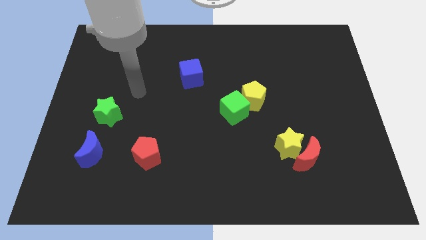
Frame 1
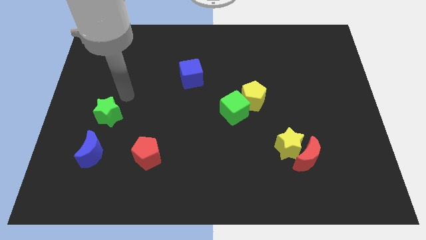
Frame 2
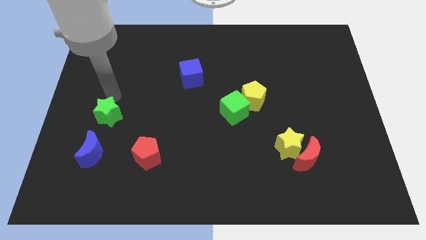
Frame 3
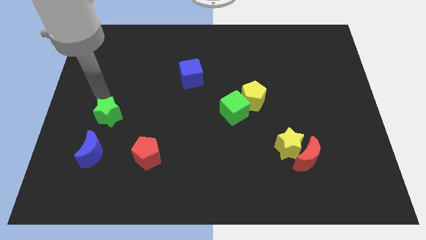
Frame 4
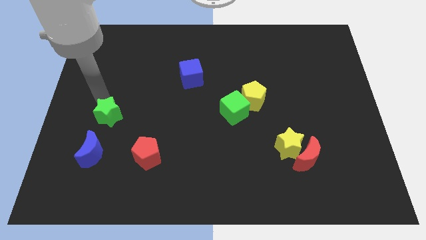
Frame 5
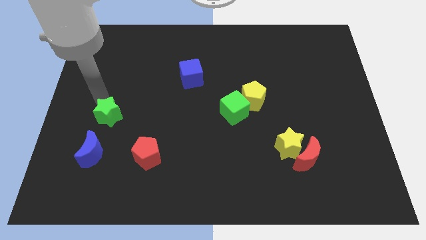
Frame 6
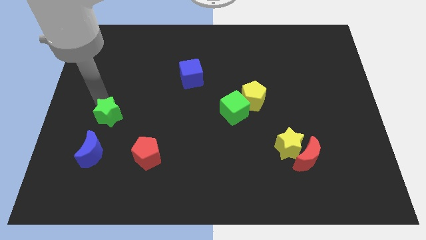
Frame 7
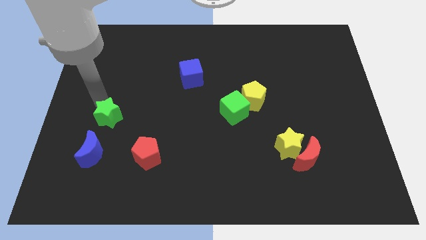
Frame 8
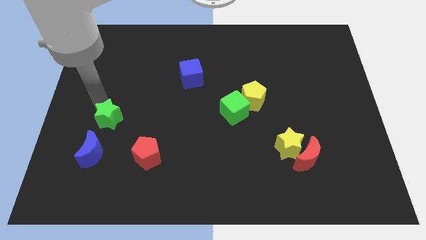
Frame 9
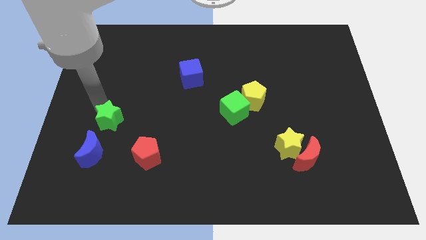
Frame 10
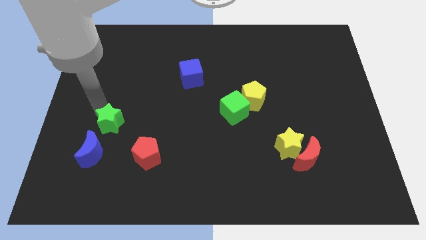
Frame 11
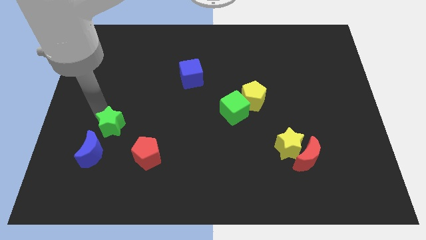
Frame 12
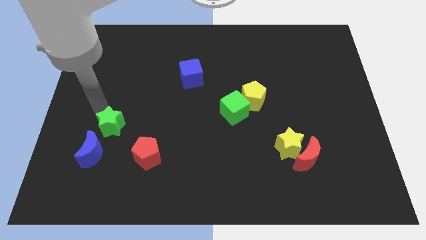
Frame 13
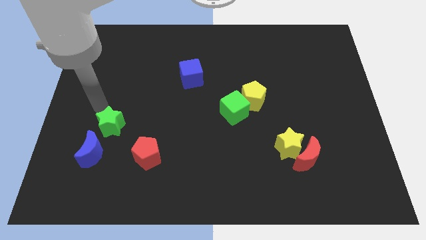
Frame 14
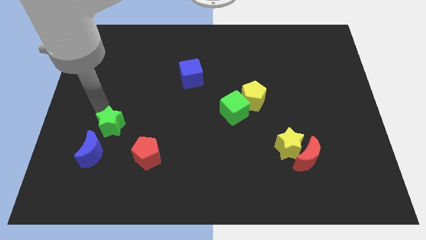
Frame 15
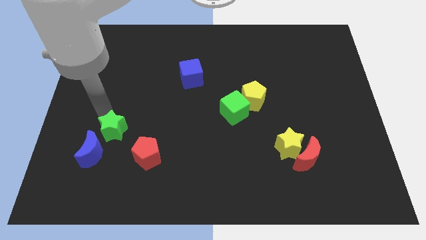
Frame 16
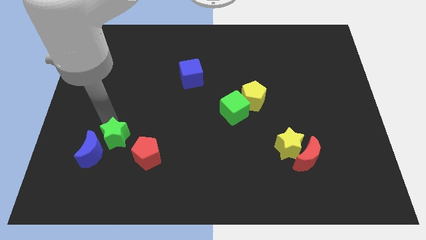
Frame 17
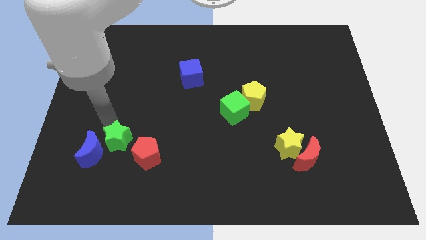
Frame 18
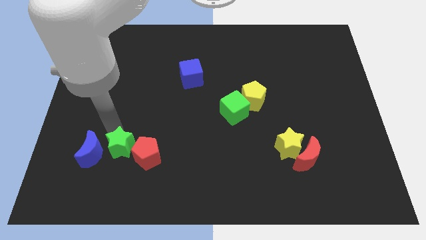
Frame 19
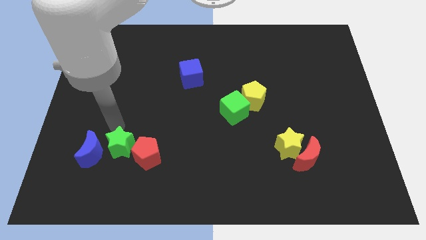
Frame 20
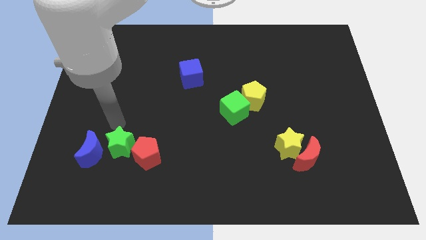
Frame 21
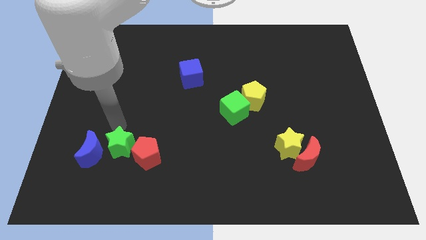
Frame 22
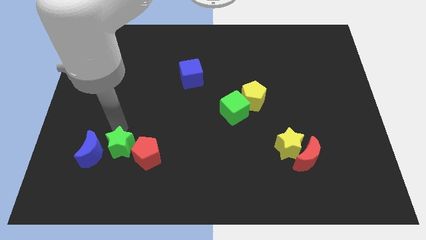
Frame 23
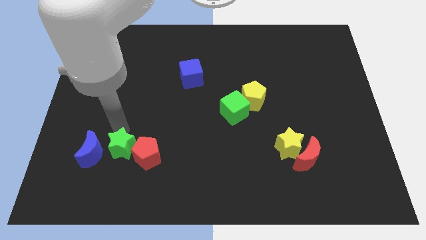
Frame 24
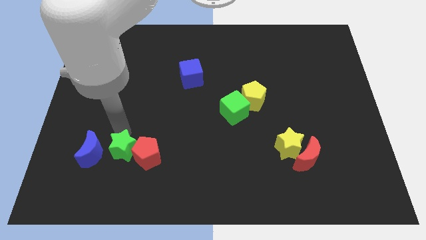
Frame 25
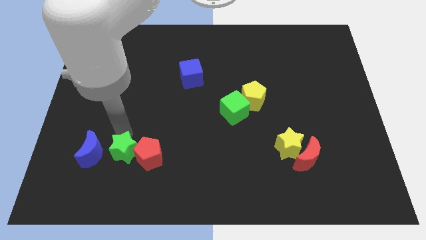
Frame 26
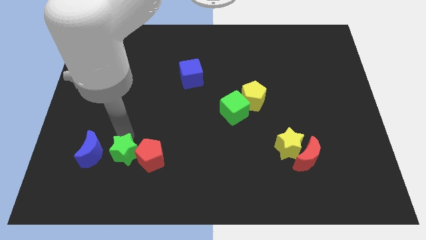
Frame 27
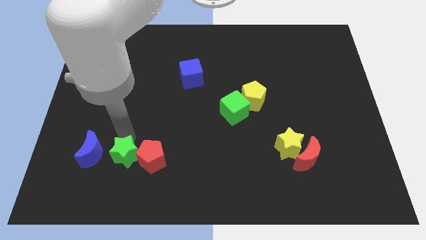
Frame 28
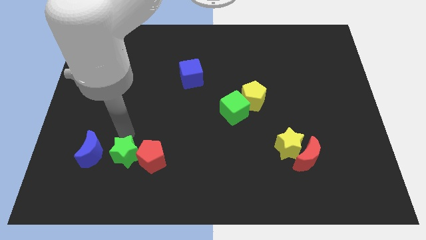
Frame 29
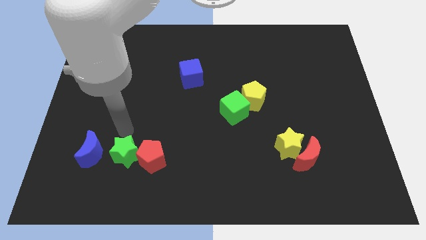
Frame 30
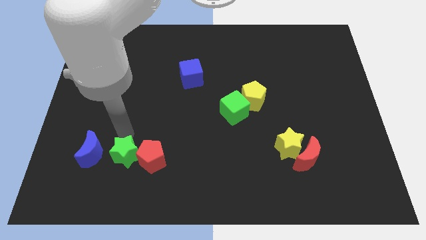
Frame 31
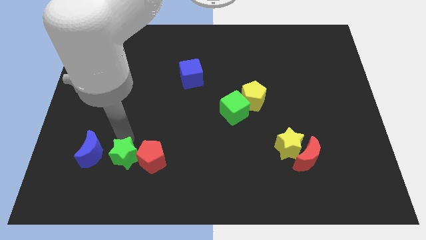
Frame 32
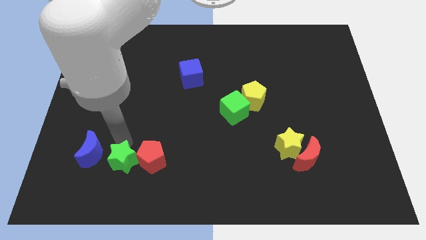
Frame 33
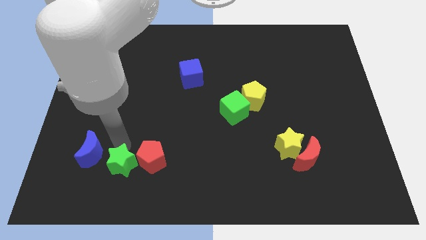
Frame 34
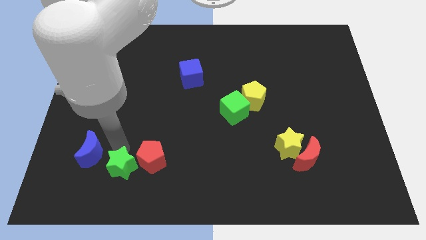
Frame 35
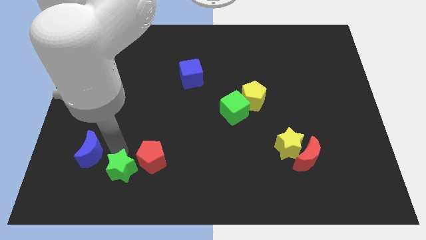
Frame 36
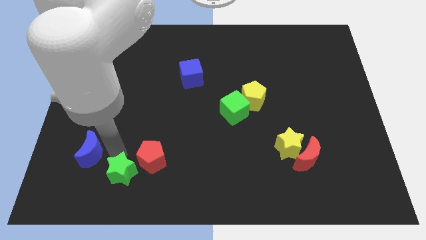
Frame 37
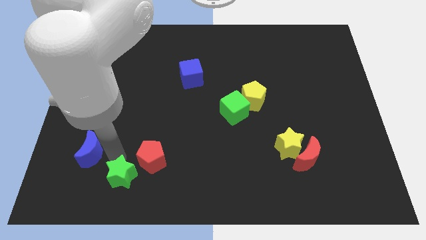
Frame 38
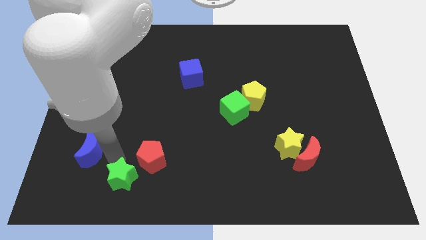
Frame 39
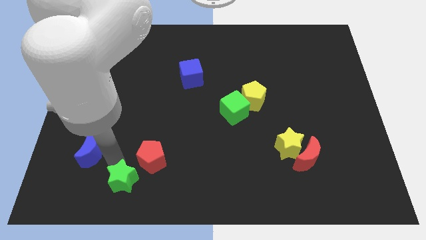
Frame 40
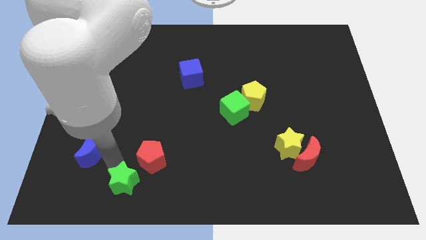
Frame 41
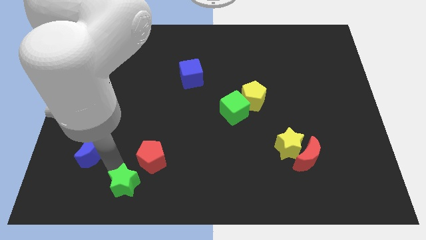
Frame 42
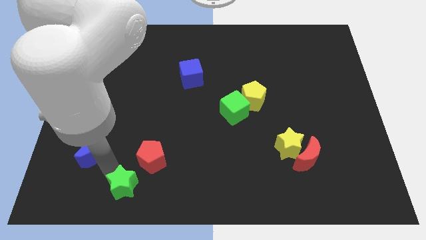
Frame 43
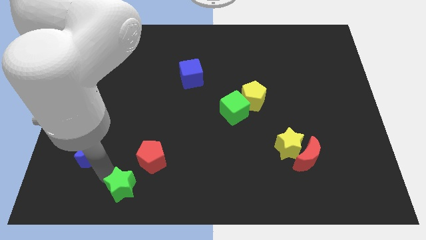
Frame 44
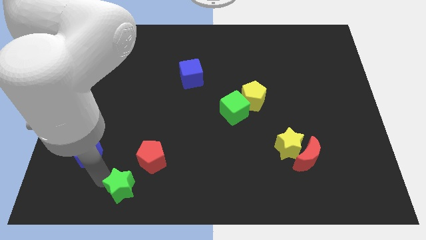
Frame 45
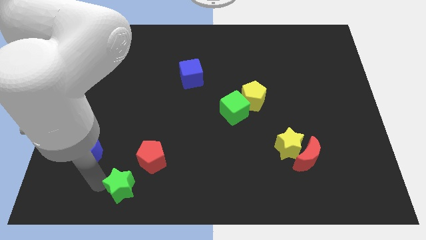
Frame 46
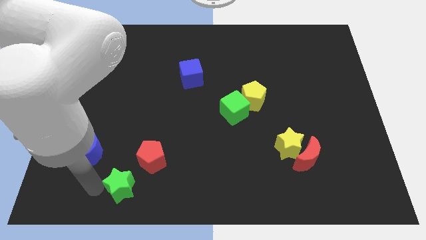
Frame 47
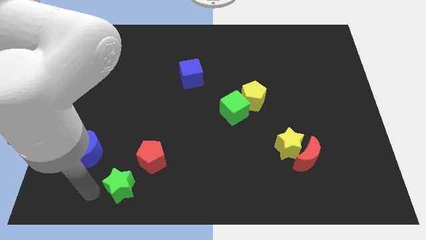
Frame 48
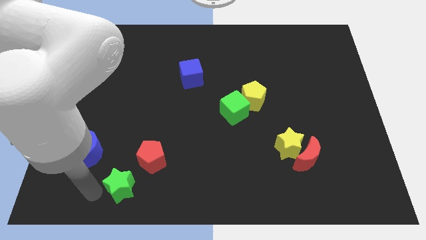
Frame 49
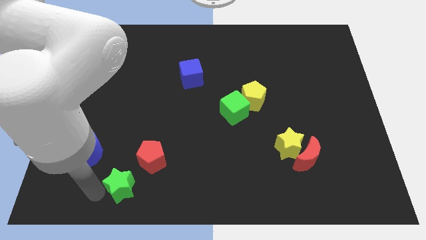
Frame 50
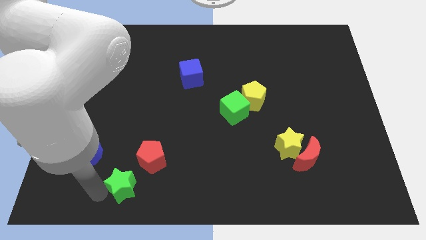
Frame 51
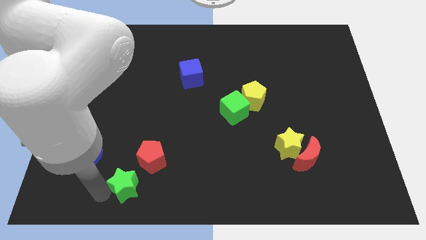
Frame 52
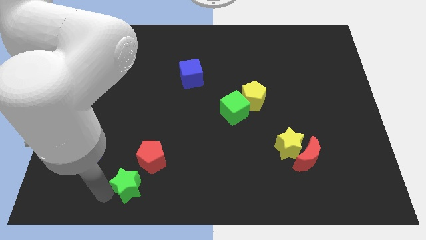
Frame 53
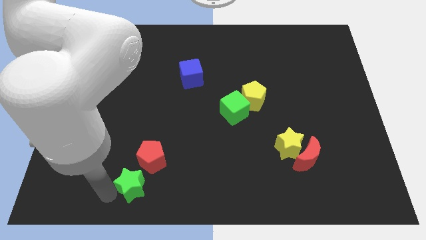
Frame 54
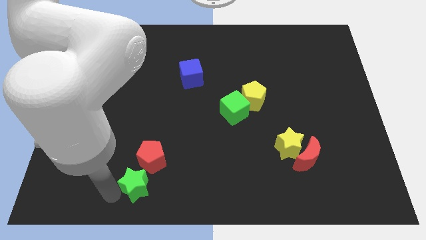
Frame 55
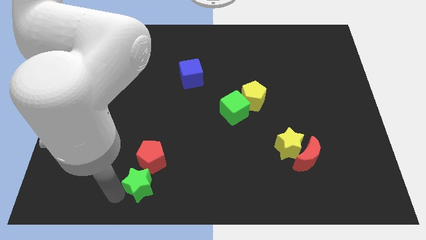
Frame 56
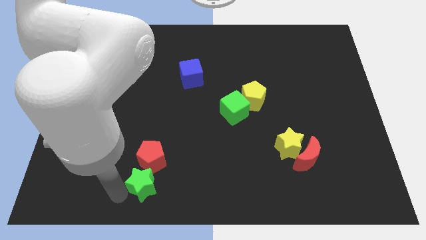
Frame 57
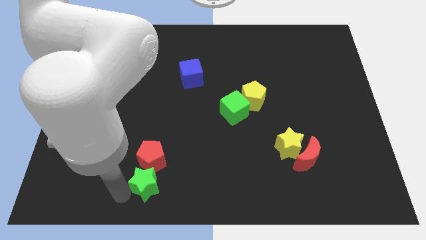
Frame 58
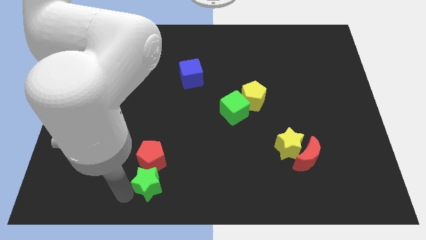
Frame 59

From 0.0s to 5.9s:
push the green star to the bottom
